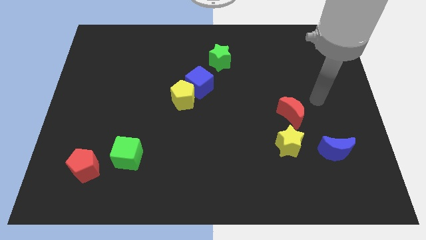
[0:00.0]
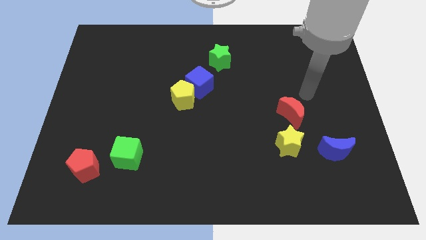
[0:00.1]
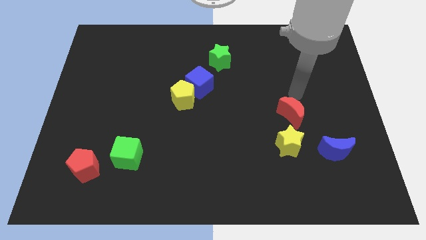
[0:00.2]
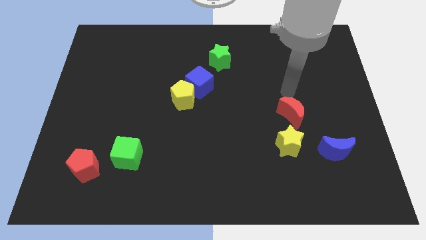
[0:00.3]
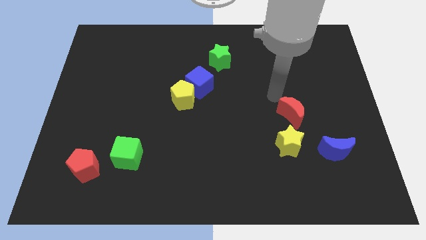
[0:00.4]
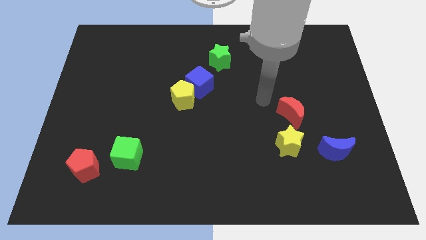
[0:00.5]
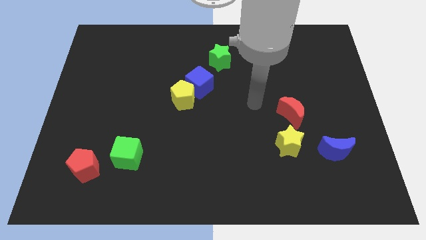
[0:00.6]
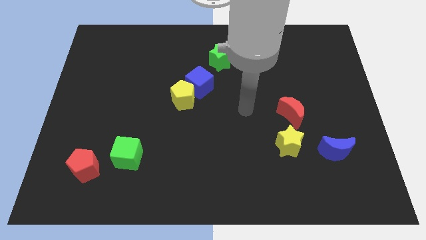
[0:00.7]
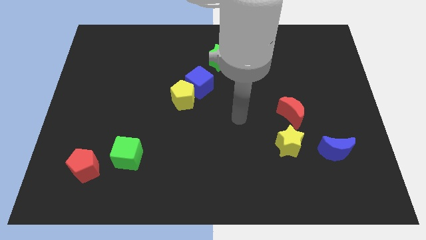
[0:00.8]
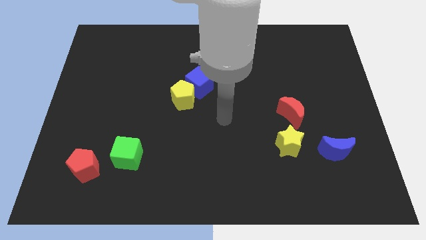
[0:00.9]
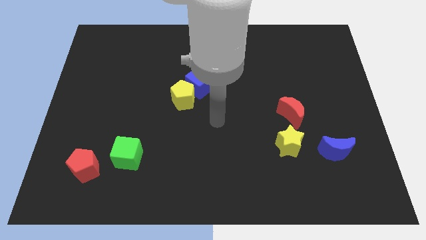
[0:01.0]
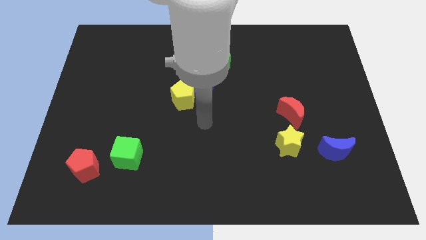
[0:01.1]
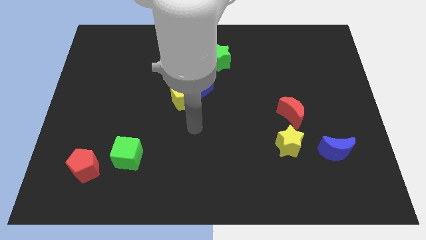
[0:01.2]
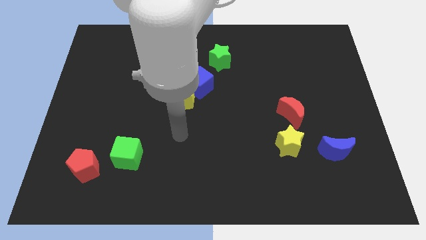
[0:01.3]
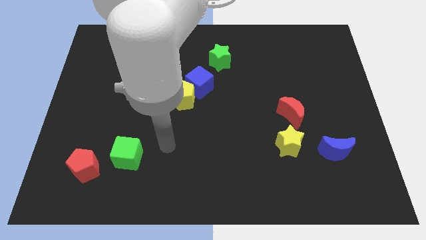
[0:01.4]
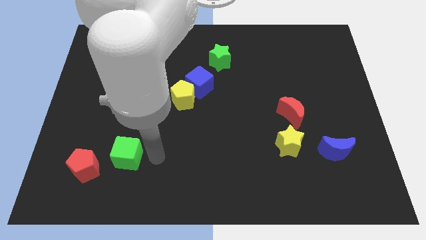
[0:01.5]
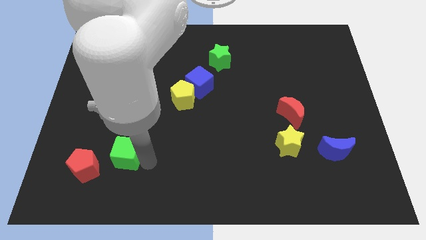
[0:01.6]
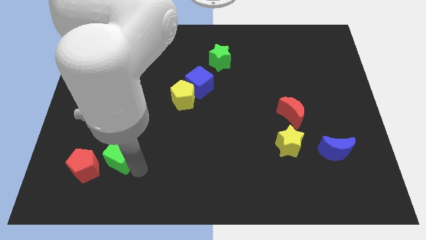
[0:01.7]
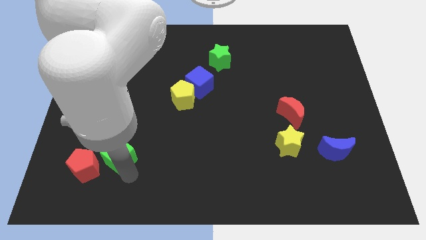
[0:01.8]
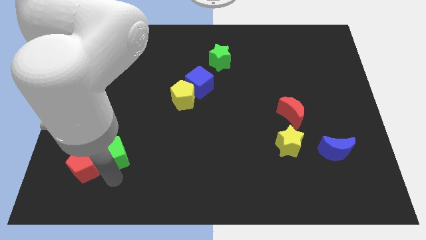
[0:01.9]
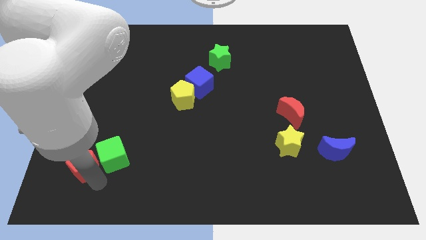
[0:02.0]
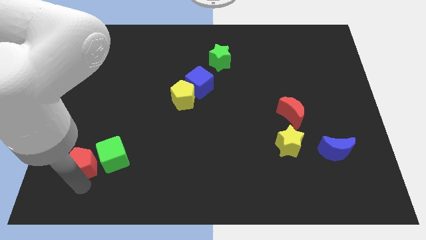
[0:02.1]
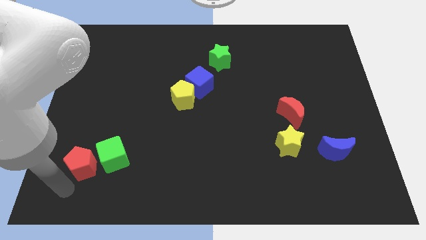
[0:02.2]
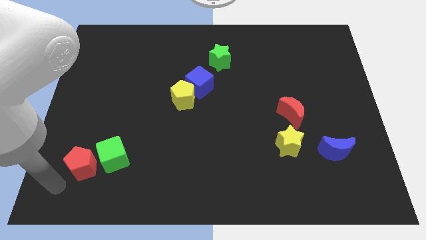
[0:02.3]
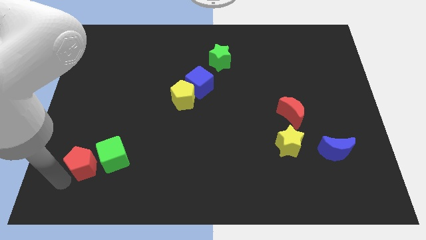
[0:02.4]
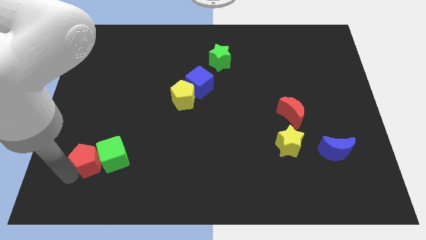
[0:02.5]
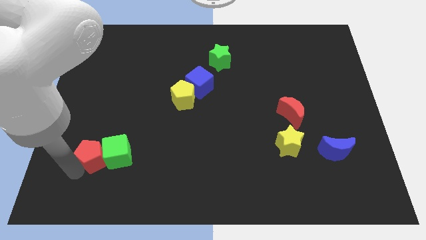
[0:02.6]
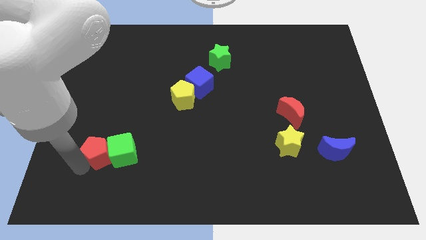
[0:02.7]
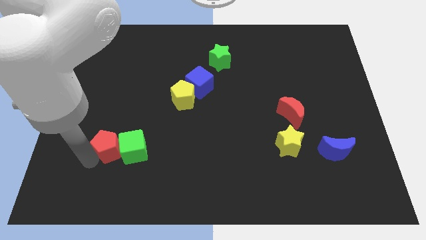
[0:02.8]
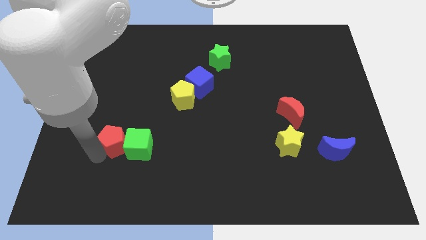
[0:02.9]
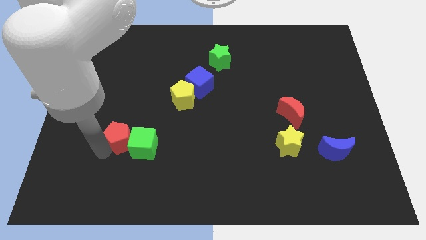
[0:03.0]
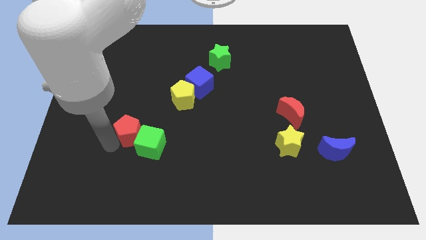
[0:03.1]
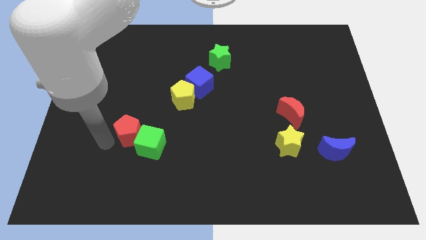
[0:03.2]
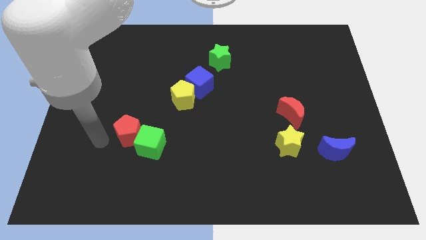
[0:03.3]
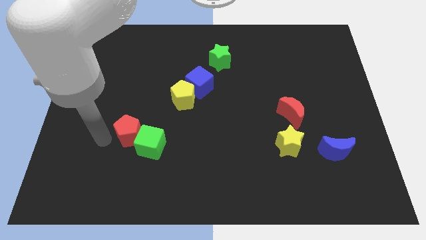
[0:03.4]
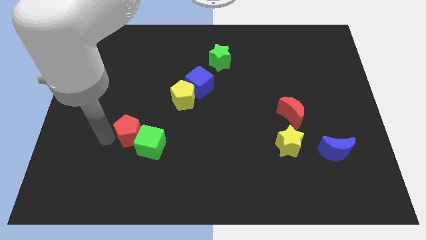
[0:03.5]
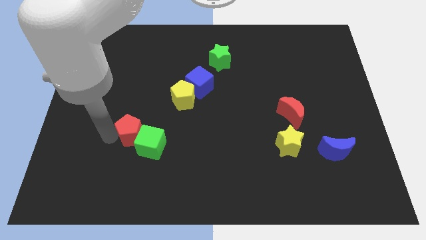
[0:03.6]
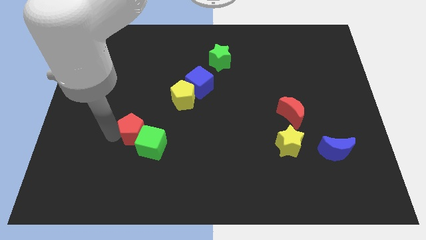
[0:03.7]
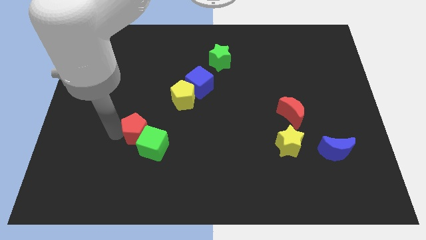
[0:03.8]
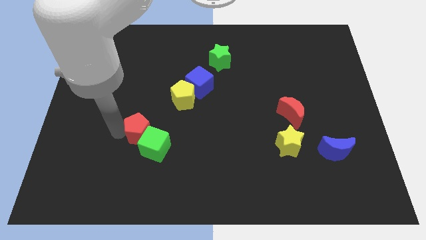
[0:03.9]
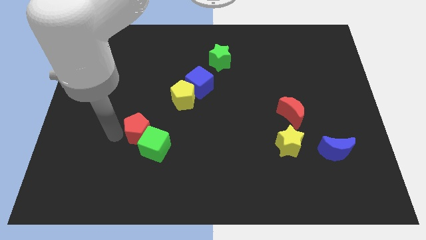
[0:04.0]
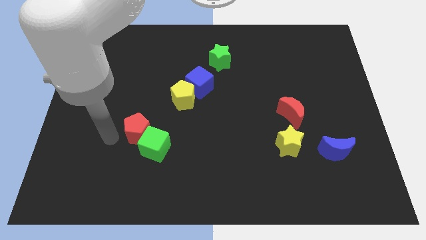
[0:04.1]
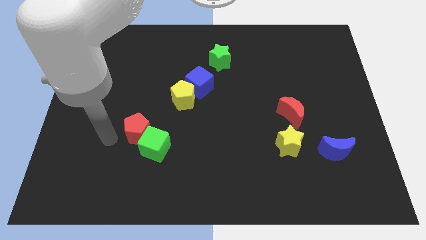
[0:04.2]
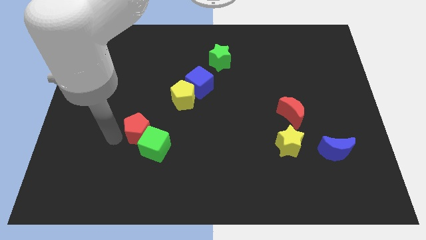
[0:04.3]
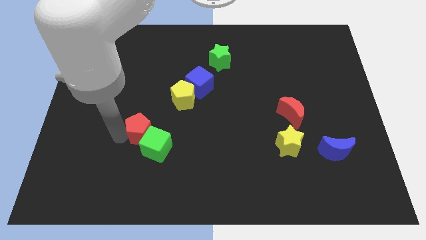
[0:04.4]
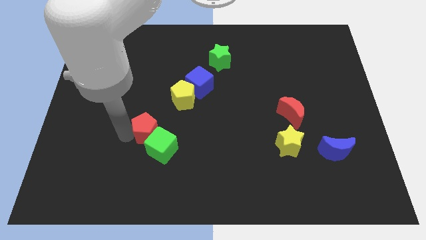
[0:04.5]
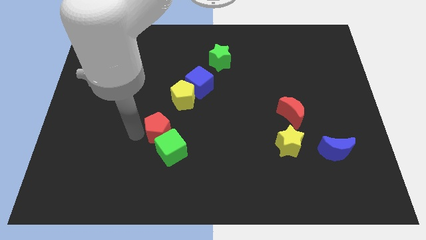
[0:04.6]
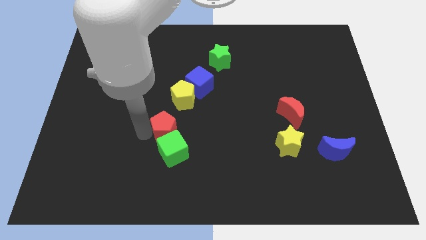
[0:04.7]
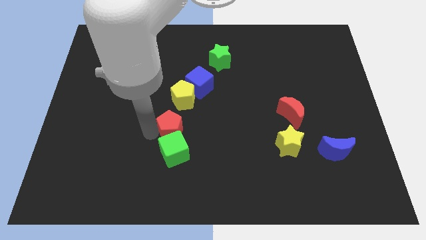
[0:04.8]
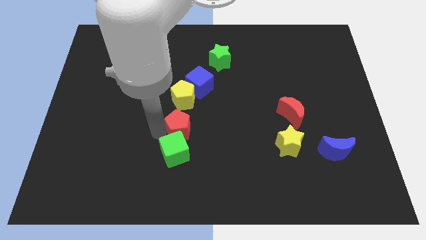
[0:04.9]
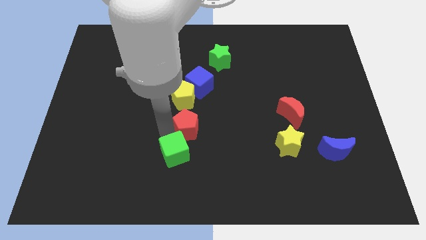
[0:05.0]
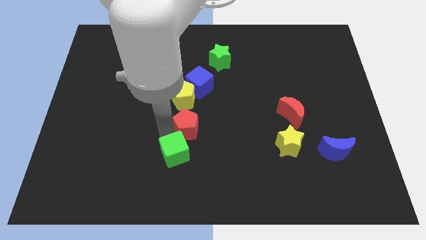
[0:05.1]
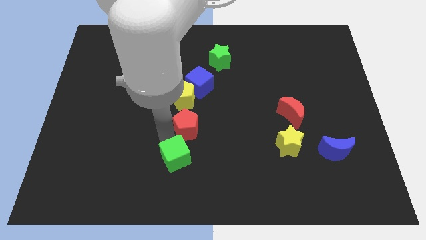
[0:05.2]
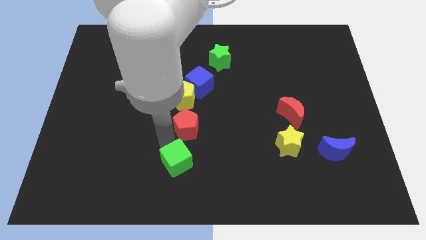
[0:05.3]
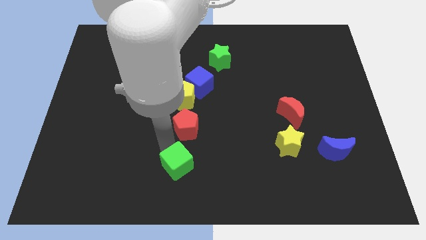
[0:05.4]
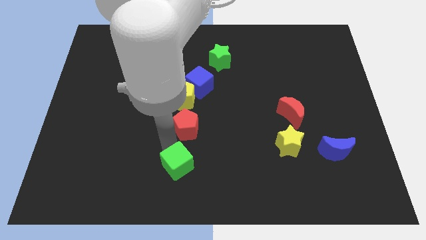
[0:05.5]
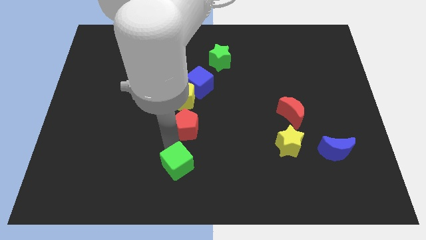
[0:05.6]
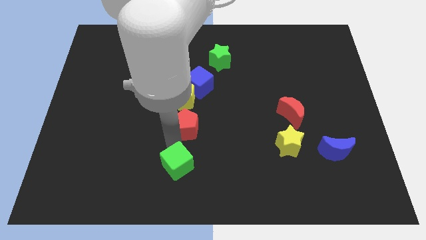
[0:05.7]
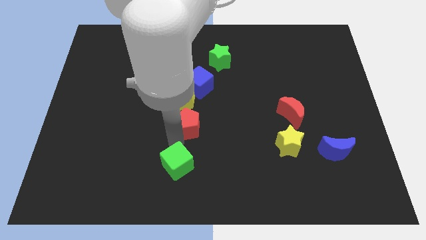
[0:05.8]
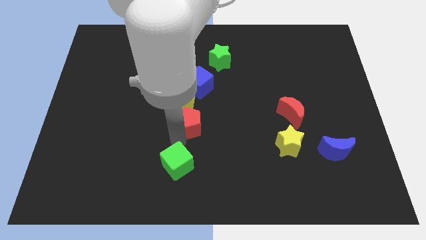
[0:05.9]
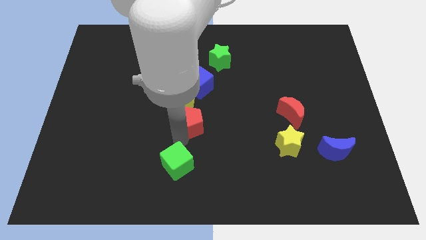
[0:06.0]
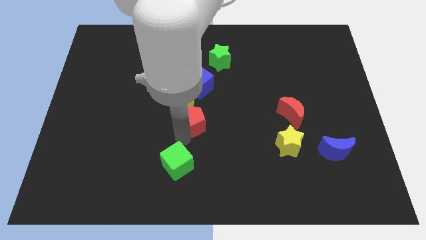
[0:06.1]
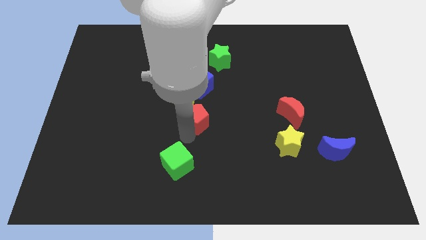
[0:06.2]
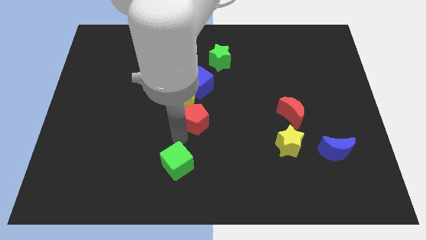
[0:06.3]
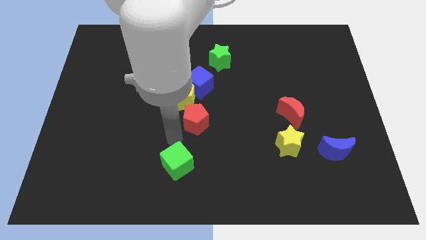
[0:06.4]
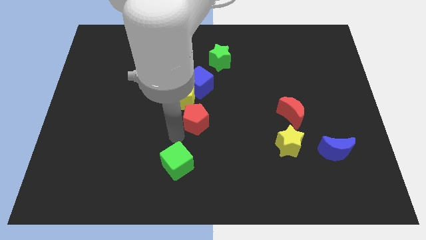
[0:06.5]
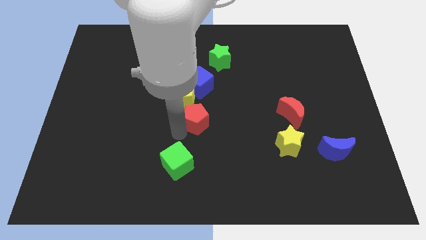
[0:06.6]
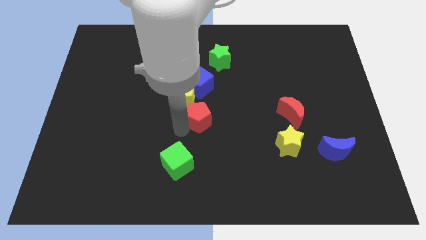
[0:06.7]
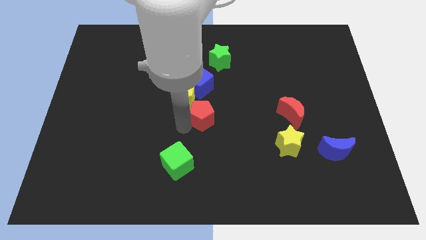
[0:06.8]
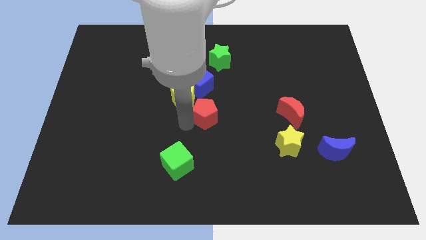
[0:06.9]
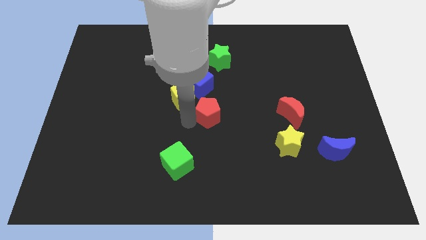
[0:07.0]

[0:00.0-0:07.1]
slide the red pentagon to the right of the yellow pentagon
